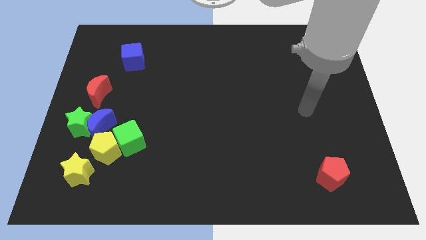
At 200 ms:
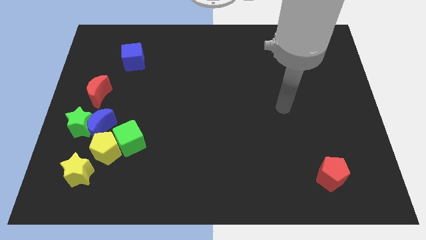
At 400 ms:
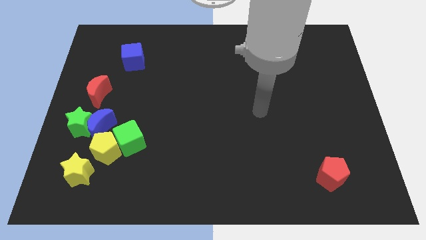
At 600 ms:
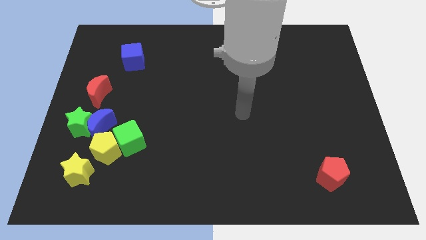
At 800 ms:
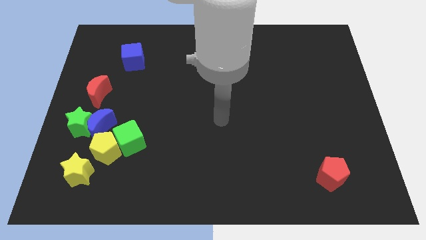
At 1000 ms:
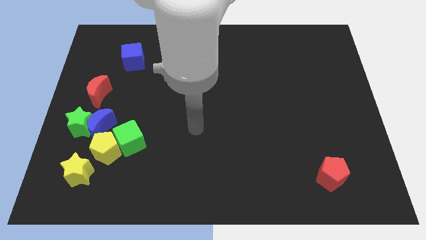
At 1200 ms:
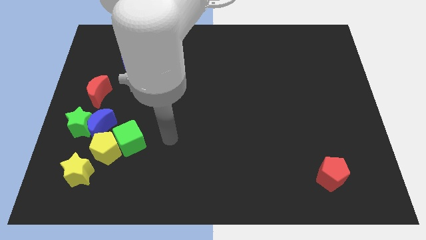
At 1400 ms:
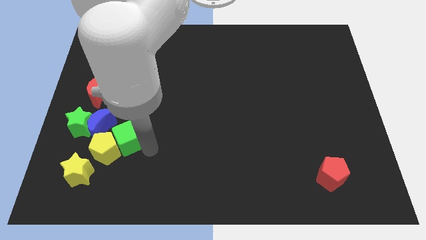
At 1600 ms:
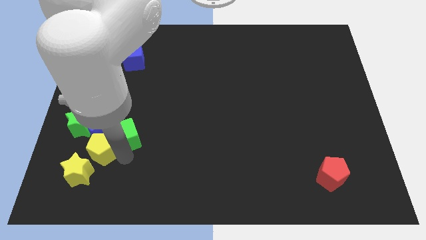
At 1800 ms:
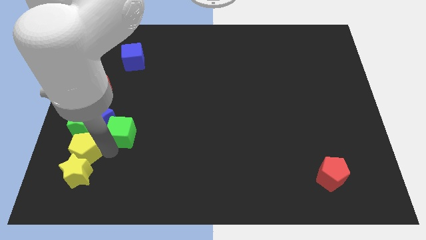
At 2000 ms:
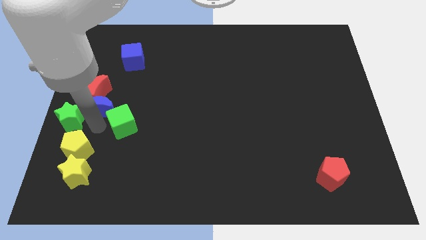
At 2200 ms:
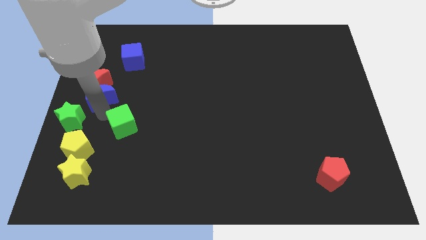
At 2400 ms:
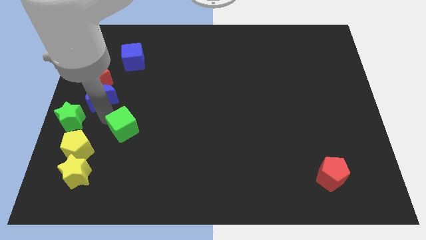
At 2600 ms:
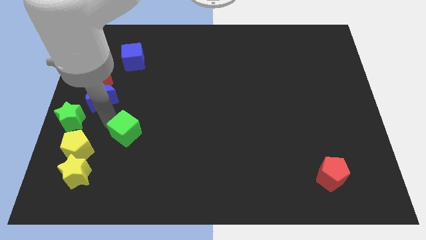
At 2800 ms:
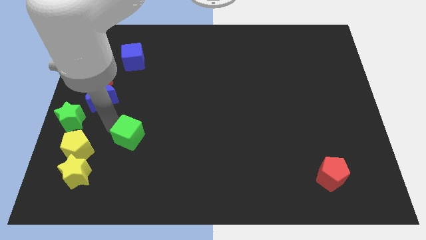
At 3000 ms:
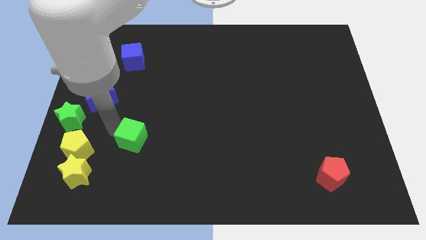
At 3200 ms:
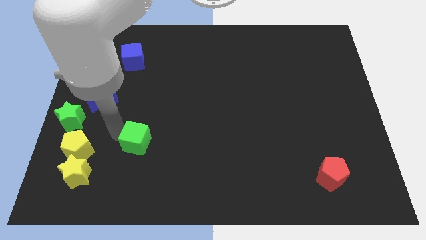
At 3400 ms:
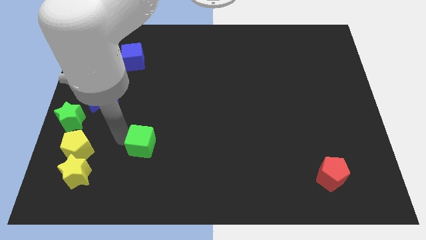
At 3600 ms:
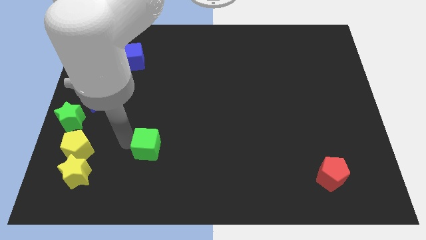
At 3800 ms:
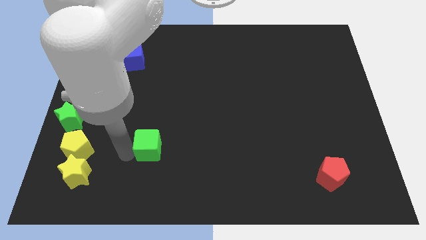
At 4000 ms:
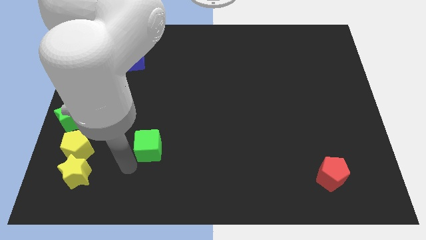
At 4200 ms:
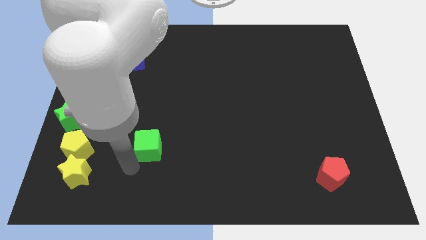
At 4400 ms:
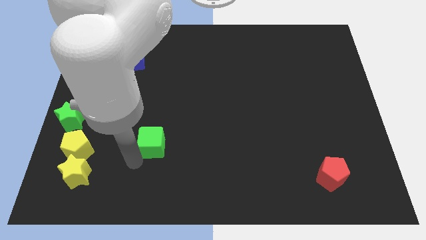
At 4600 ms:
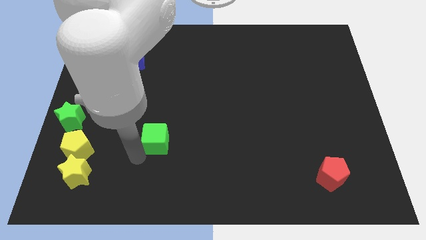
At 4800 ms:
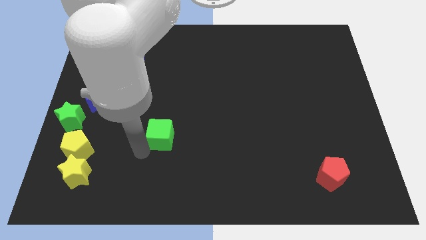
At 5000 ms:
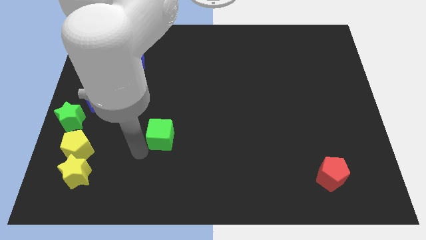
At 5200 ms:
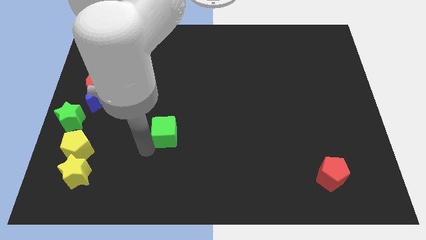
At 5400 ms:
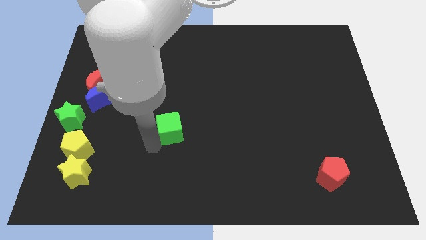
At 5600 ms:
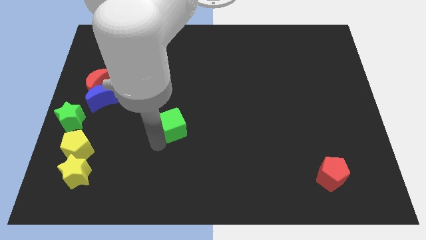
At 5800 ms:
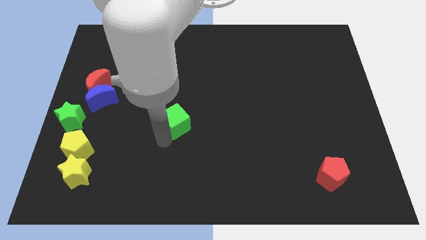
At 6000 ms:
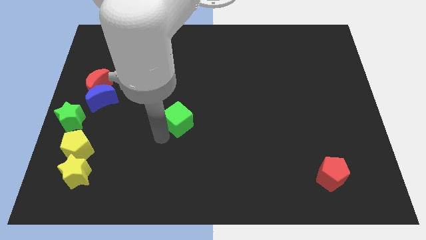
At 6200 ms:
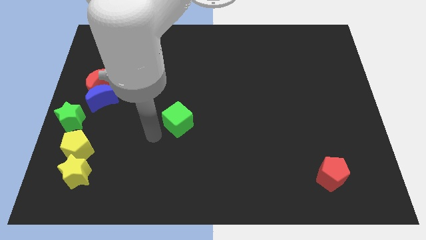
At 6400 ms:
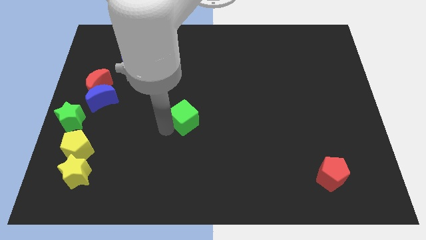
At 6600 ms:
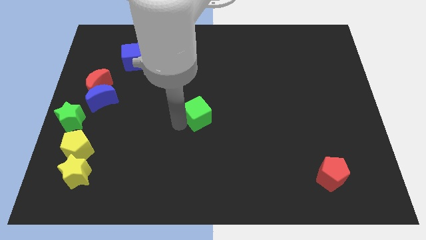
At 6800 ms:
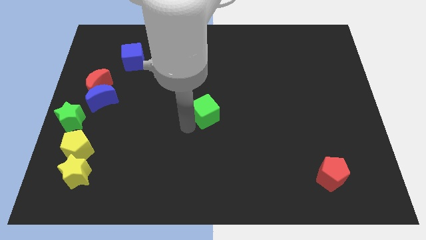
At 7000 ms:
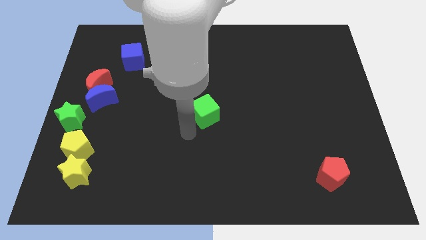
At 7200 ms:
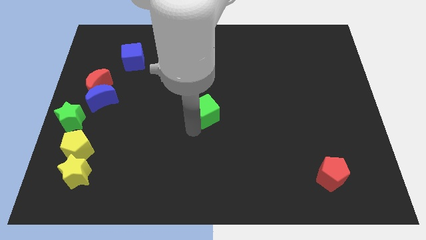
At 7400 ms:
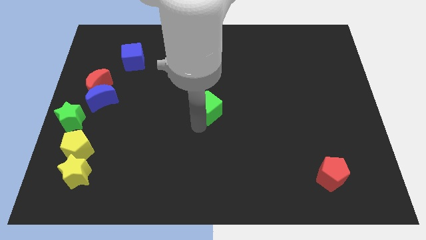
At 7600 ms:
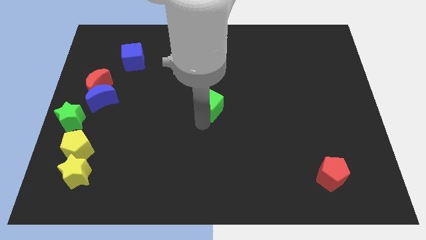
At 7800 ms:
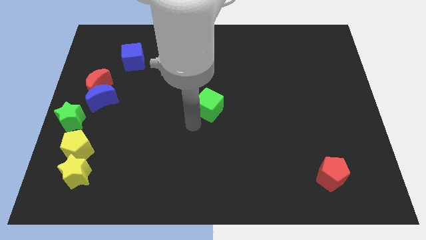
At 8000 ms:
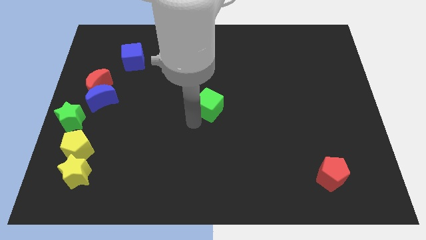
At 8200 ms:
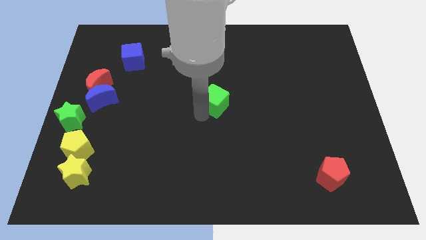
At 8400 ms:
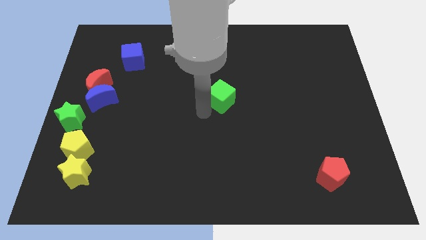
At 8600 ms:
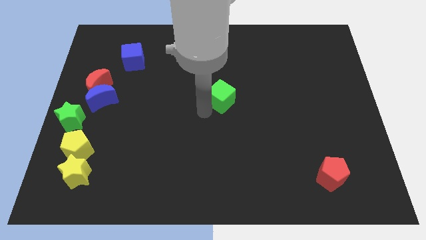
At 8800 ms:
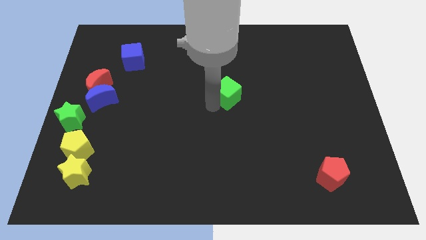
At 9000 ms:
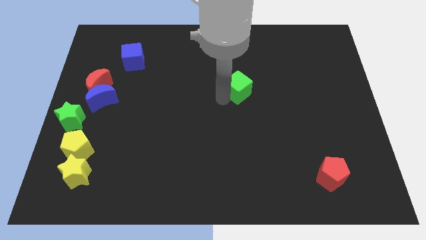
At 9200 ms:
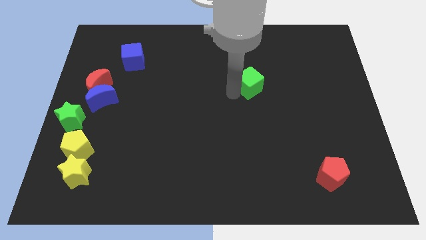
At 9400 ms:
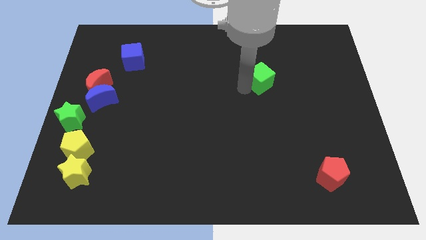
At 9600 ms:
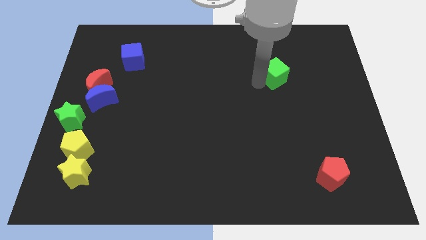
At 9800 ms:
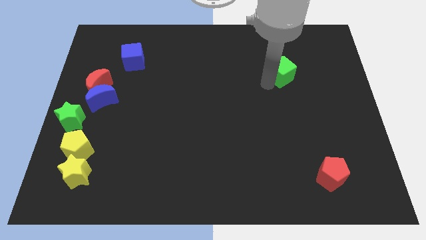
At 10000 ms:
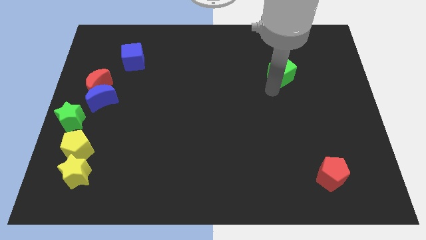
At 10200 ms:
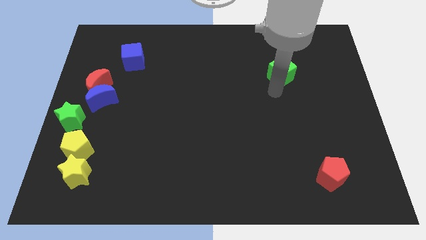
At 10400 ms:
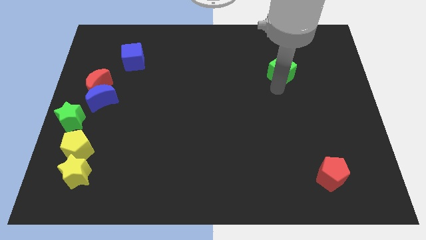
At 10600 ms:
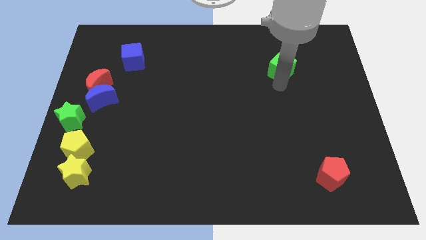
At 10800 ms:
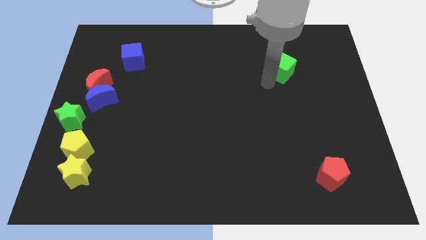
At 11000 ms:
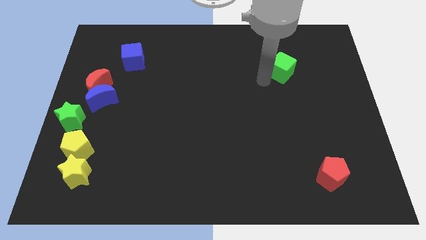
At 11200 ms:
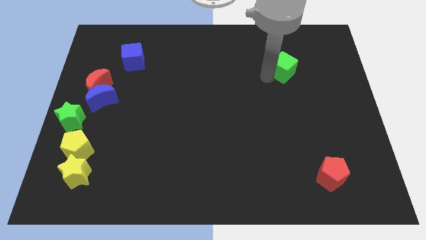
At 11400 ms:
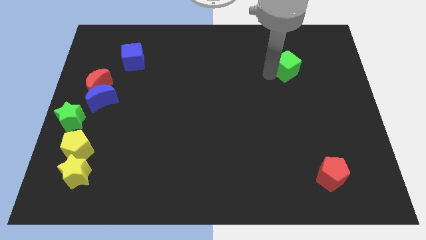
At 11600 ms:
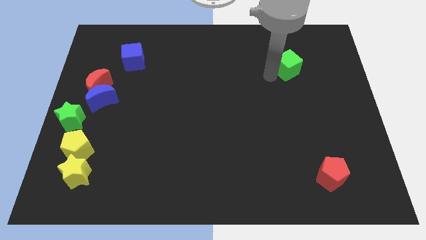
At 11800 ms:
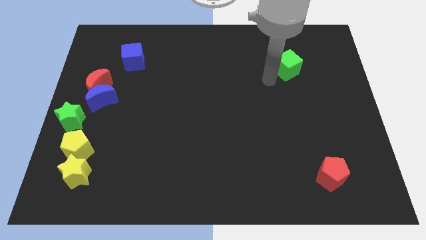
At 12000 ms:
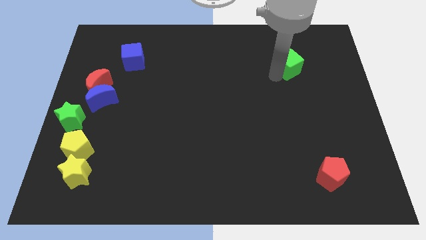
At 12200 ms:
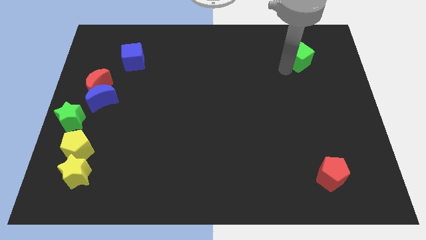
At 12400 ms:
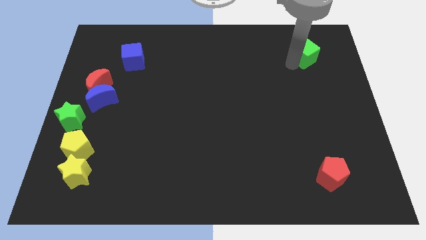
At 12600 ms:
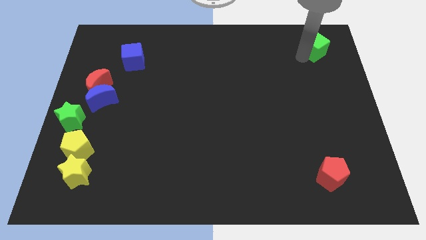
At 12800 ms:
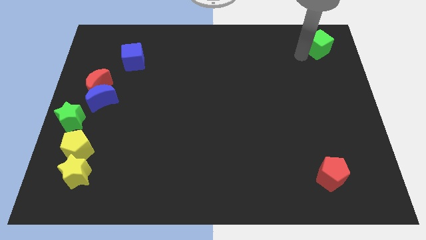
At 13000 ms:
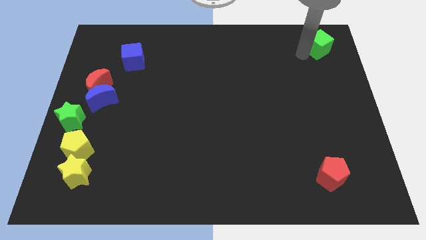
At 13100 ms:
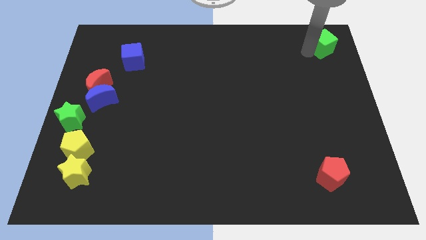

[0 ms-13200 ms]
move the green cube to the upper right corner
